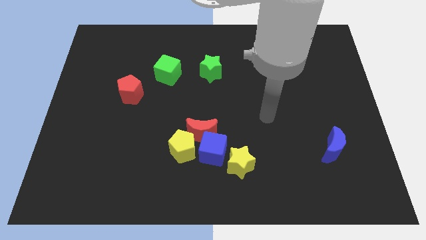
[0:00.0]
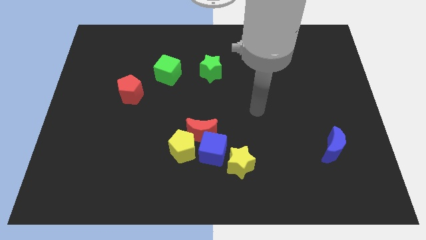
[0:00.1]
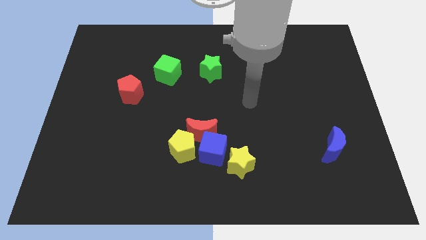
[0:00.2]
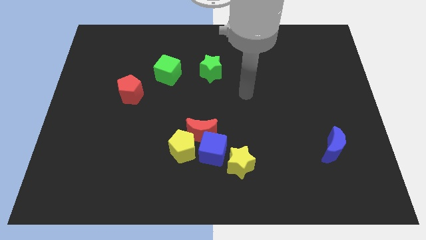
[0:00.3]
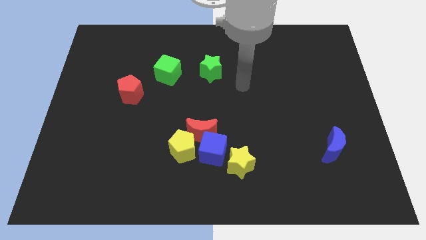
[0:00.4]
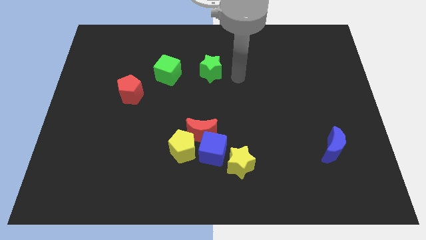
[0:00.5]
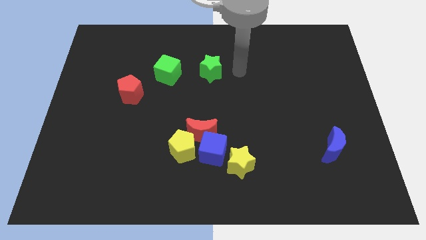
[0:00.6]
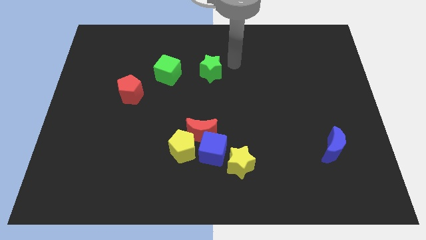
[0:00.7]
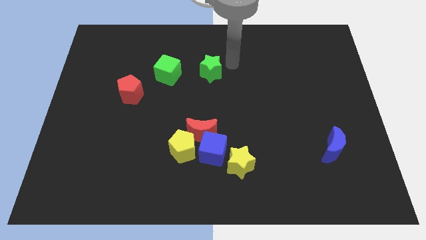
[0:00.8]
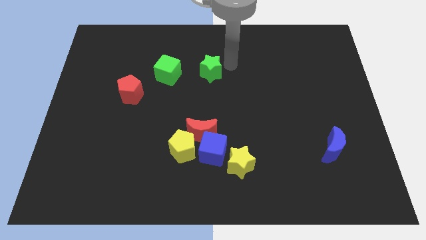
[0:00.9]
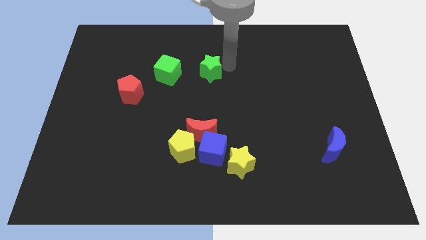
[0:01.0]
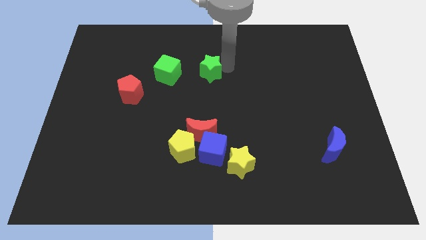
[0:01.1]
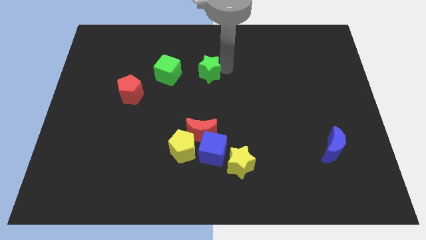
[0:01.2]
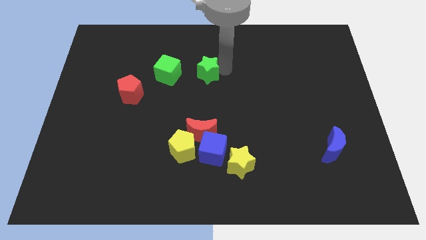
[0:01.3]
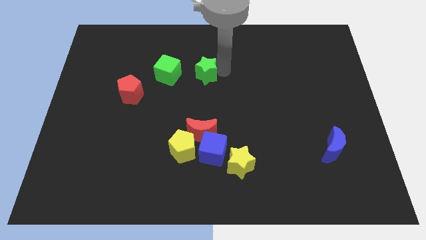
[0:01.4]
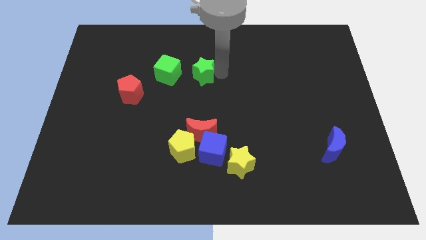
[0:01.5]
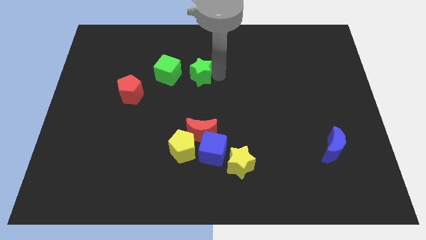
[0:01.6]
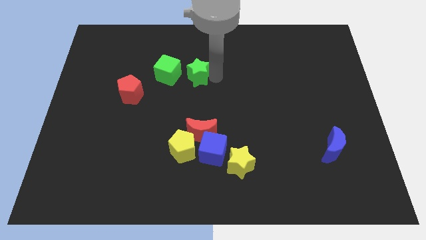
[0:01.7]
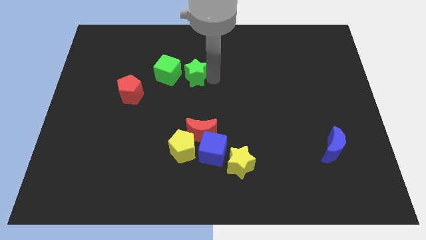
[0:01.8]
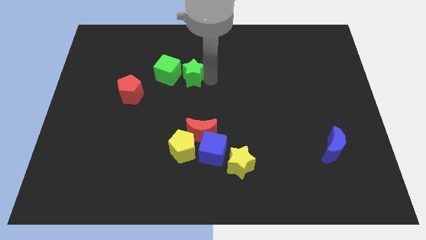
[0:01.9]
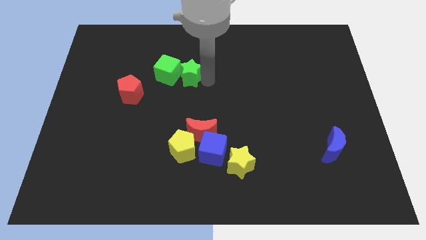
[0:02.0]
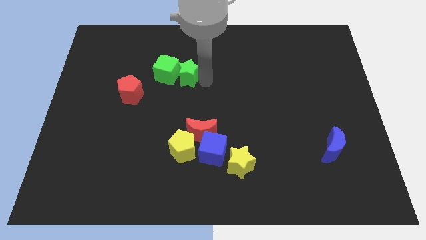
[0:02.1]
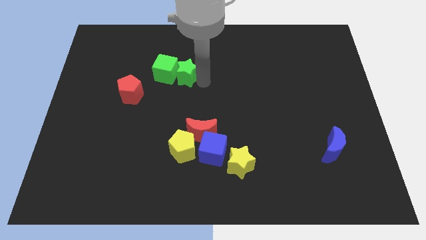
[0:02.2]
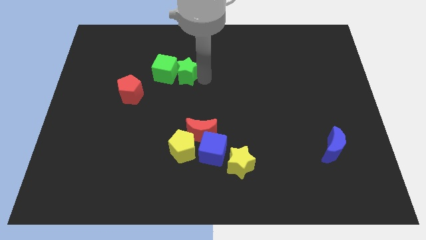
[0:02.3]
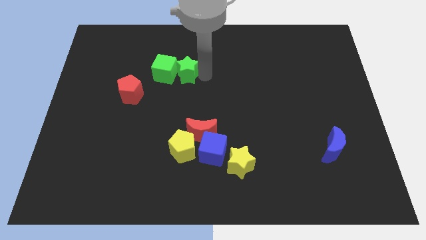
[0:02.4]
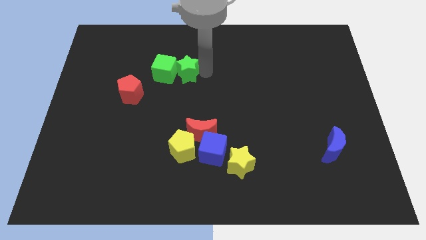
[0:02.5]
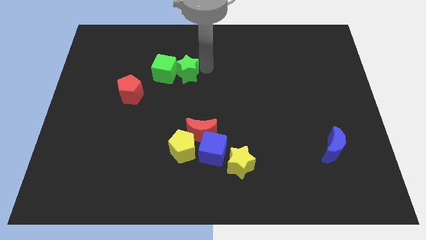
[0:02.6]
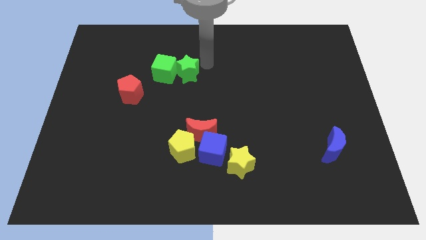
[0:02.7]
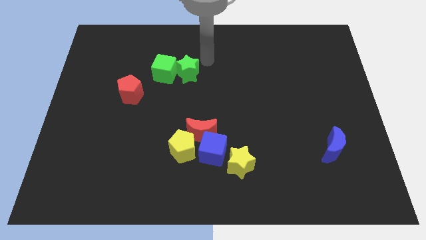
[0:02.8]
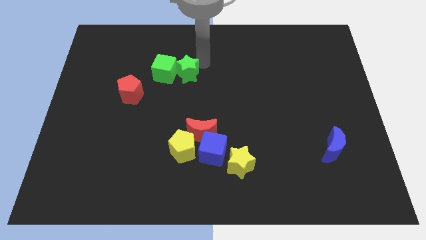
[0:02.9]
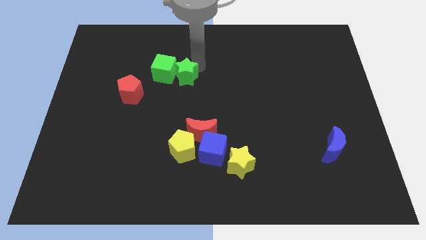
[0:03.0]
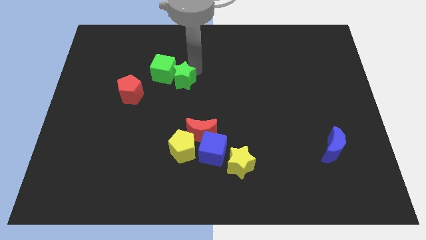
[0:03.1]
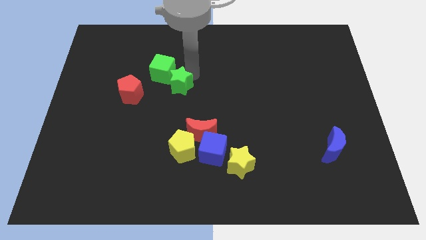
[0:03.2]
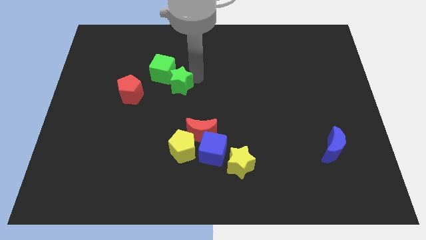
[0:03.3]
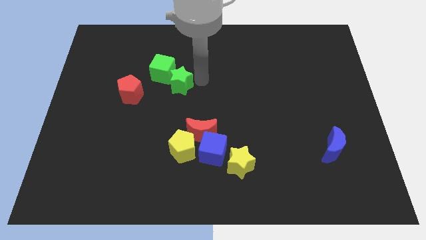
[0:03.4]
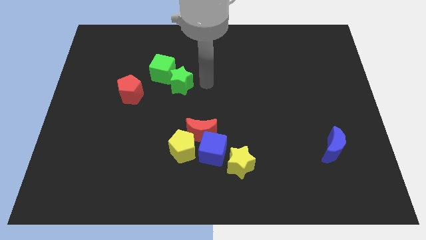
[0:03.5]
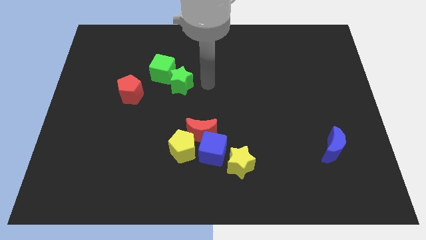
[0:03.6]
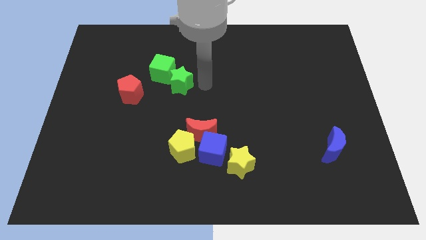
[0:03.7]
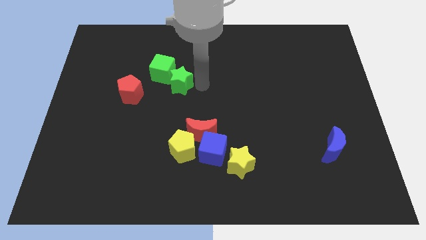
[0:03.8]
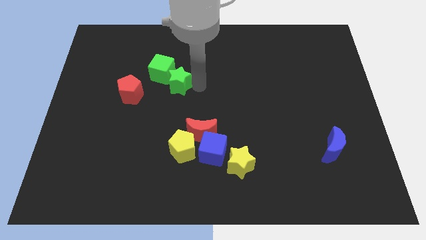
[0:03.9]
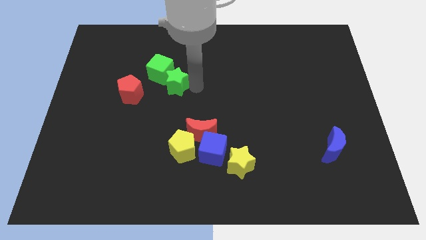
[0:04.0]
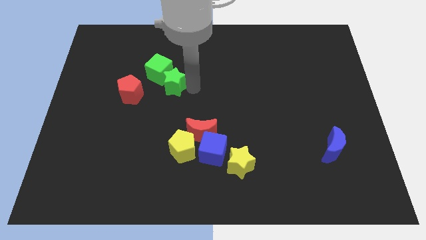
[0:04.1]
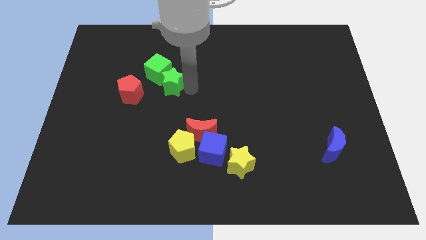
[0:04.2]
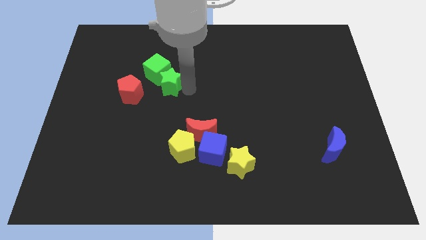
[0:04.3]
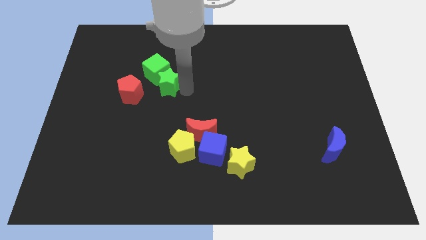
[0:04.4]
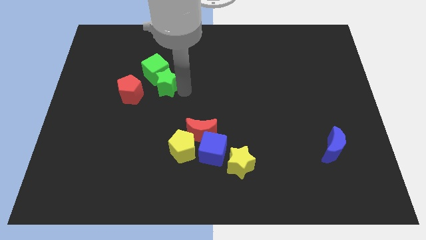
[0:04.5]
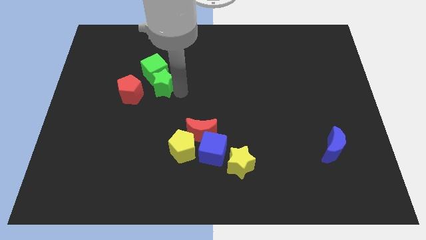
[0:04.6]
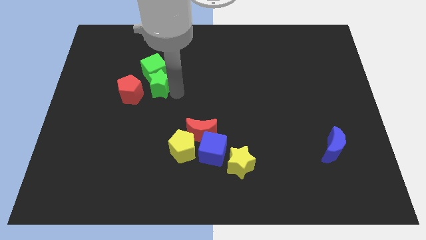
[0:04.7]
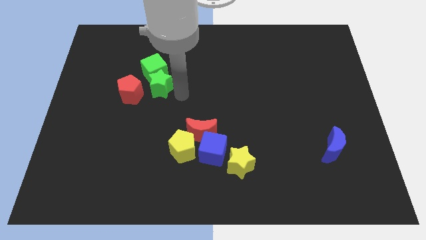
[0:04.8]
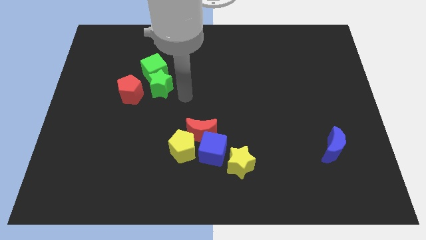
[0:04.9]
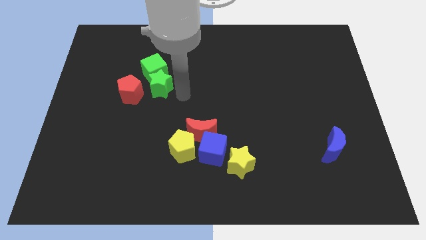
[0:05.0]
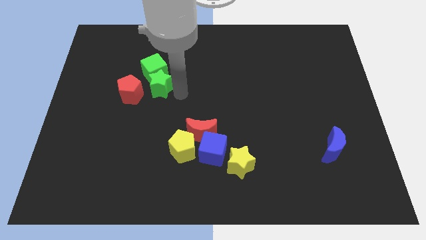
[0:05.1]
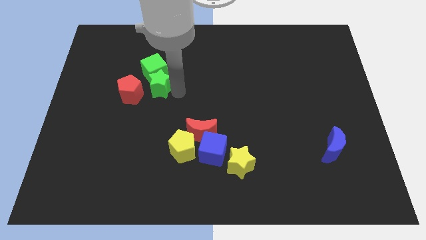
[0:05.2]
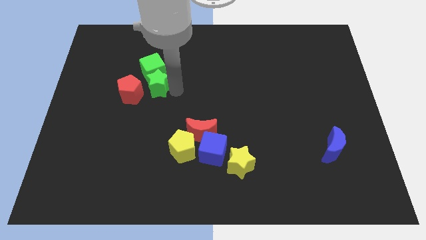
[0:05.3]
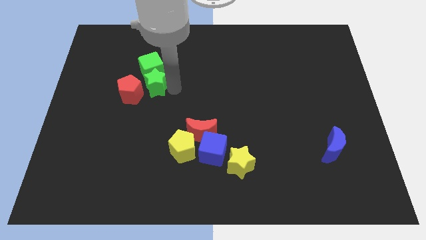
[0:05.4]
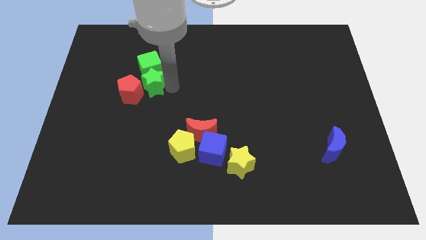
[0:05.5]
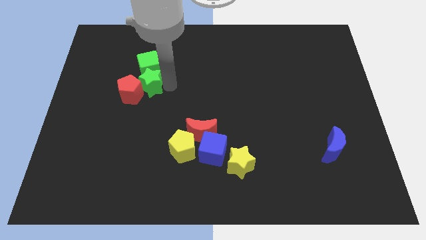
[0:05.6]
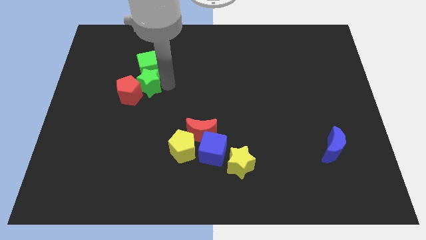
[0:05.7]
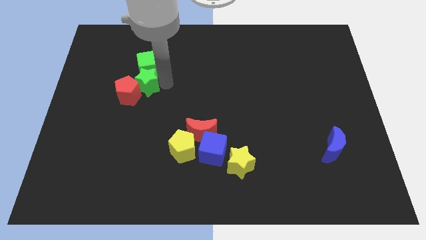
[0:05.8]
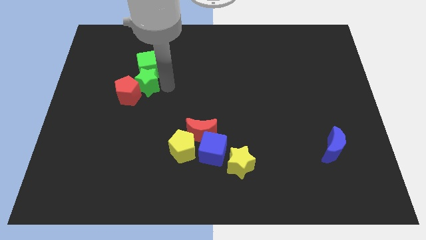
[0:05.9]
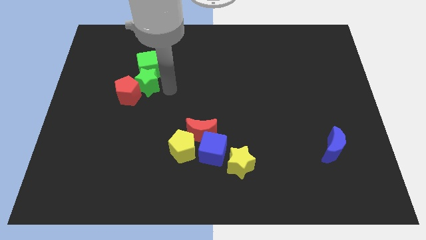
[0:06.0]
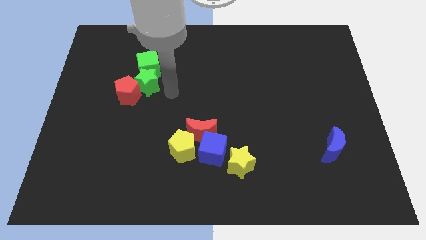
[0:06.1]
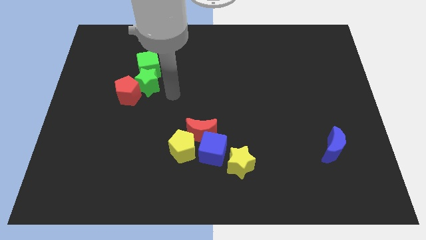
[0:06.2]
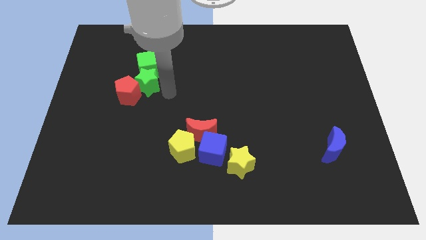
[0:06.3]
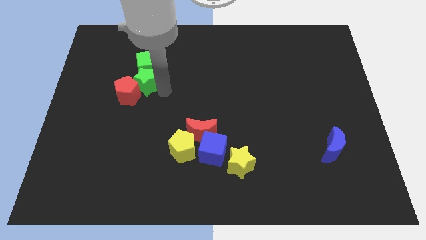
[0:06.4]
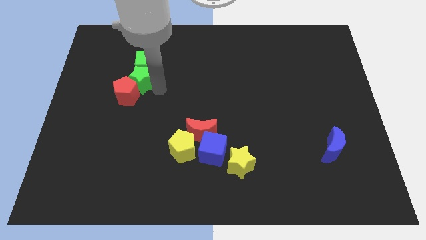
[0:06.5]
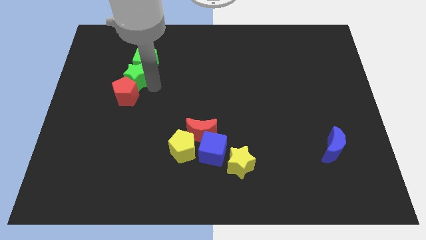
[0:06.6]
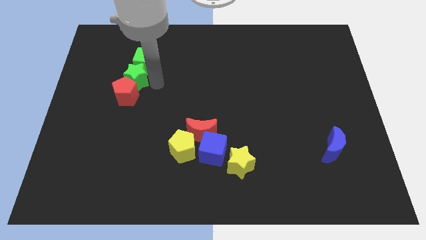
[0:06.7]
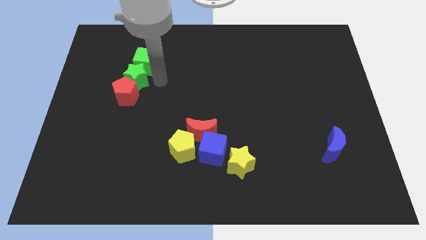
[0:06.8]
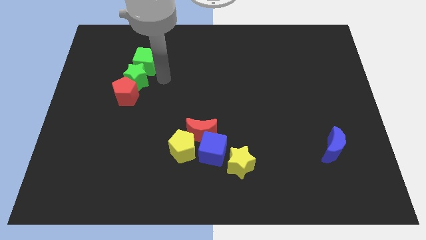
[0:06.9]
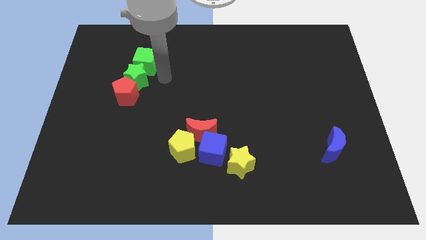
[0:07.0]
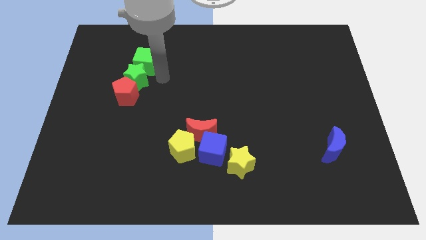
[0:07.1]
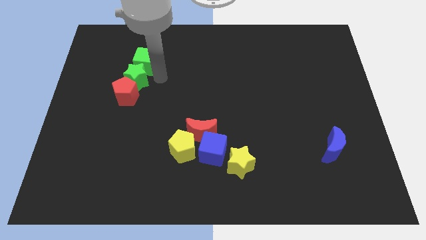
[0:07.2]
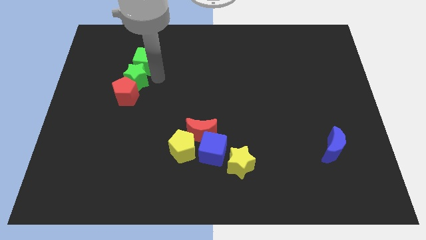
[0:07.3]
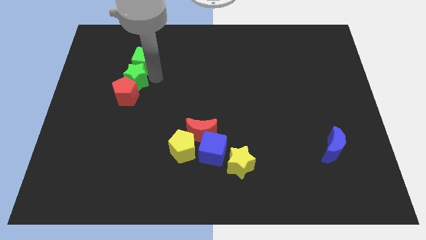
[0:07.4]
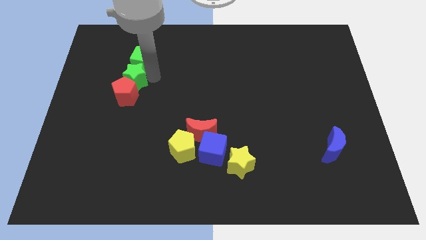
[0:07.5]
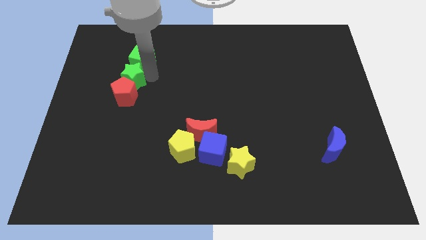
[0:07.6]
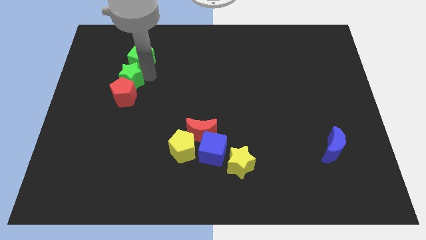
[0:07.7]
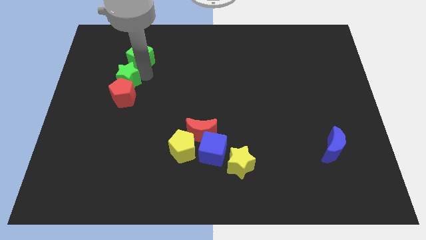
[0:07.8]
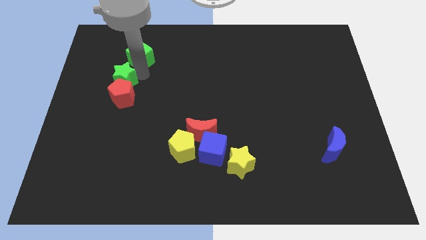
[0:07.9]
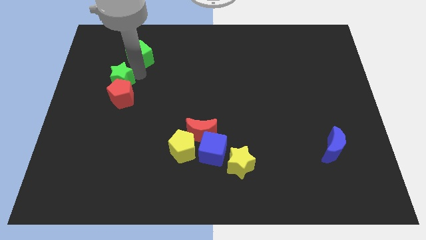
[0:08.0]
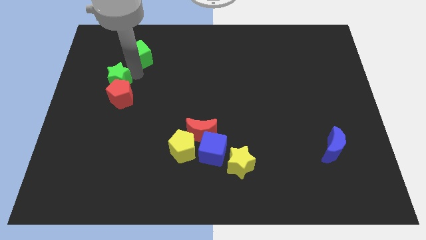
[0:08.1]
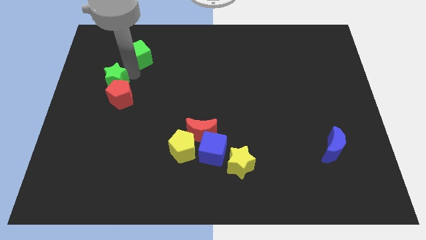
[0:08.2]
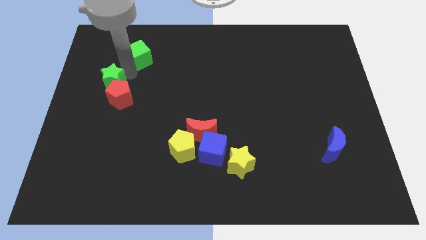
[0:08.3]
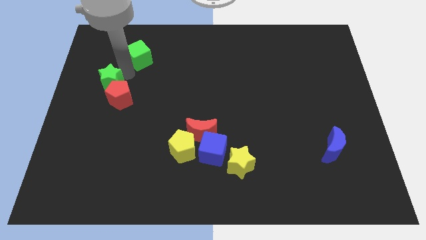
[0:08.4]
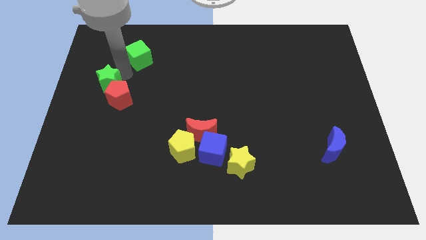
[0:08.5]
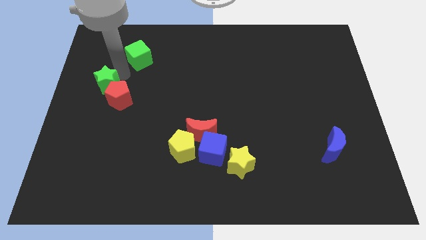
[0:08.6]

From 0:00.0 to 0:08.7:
put the green star to the center left
